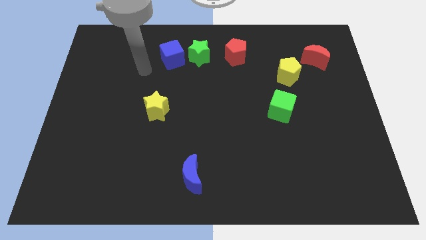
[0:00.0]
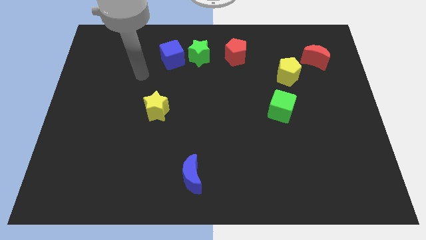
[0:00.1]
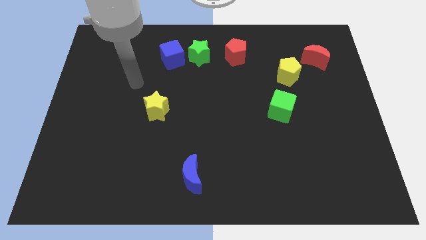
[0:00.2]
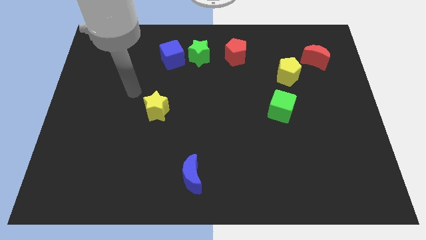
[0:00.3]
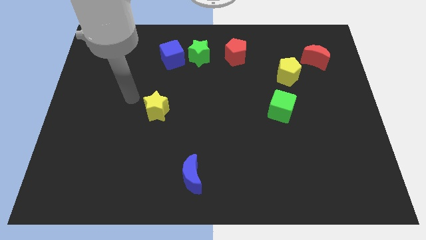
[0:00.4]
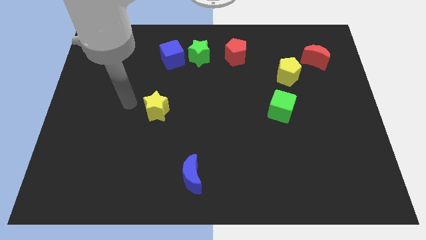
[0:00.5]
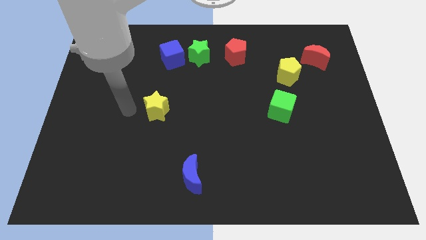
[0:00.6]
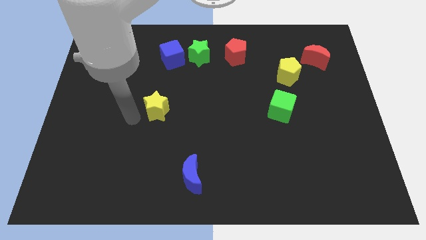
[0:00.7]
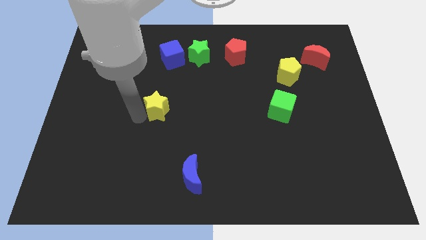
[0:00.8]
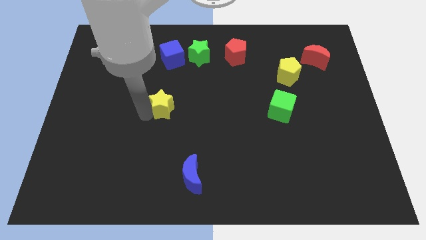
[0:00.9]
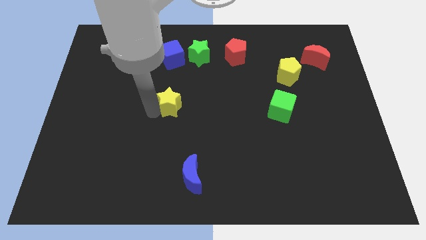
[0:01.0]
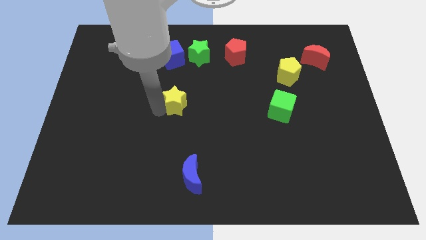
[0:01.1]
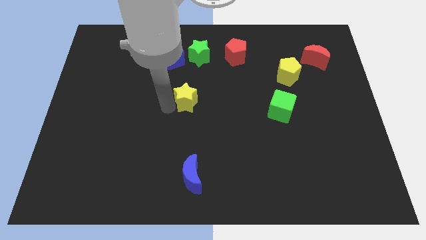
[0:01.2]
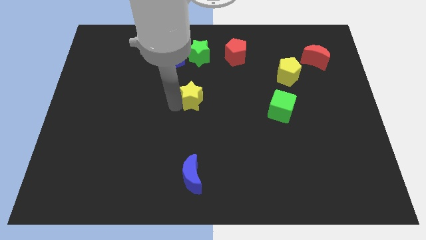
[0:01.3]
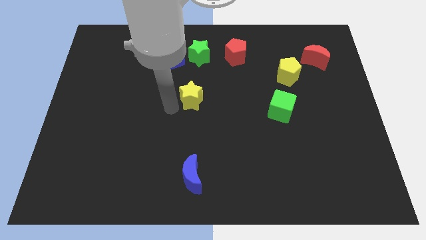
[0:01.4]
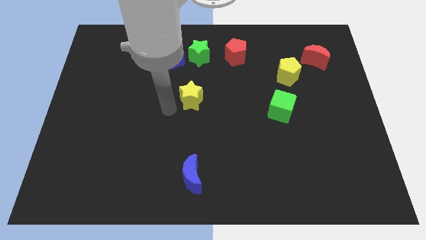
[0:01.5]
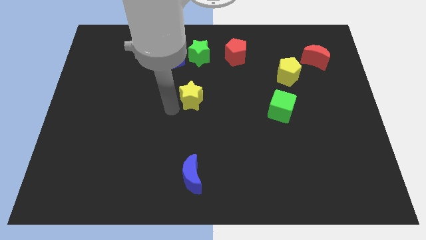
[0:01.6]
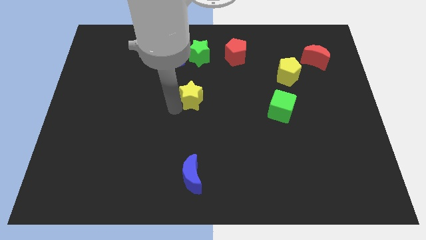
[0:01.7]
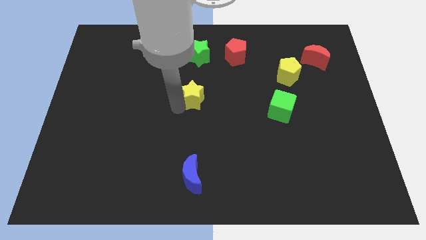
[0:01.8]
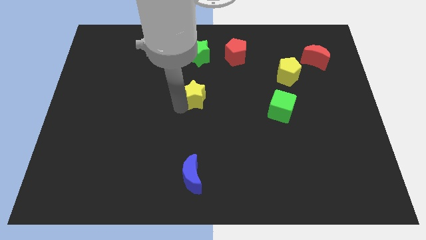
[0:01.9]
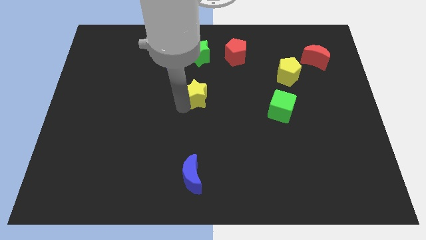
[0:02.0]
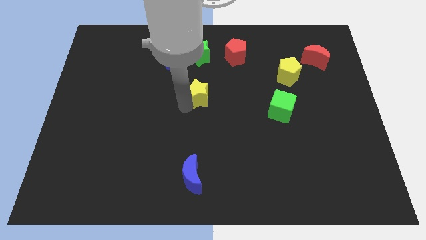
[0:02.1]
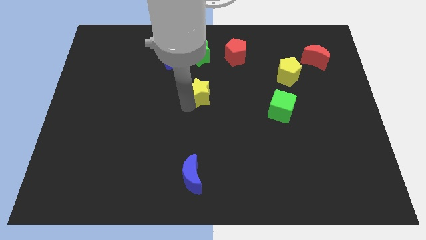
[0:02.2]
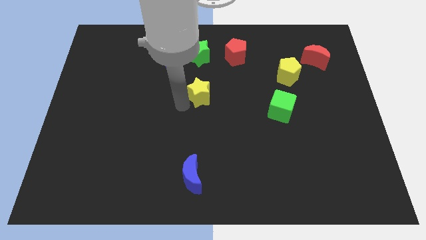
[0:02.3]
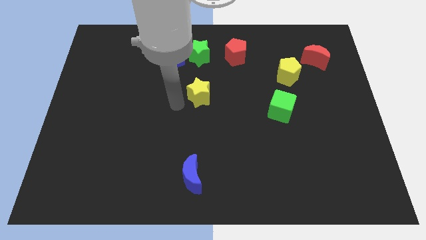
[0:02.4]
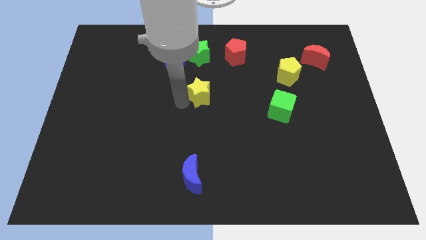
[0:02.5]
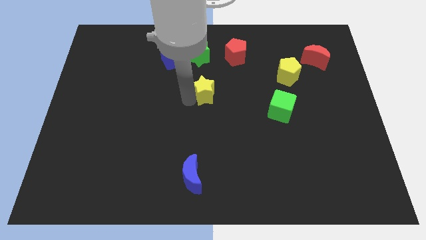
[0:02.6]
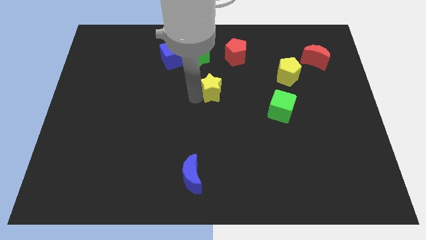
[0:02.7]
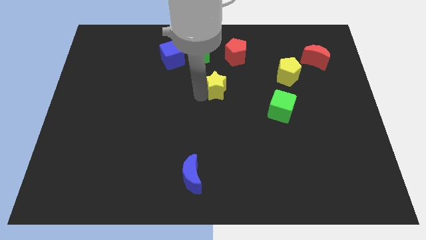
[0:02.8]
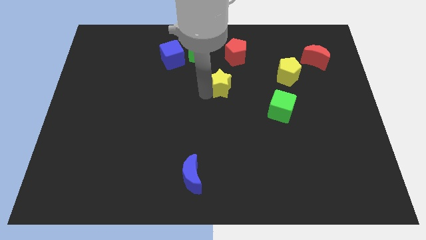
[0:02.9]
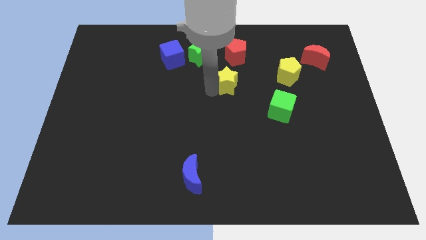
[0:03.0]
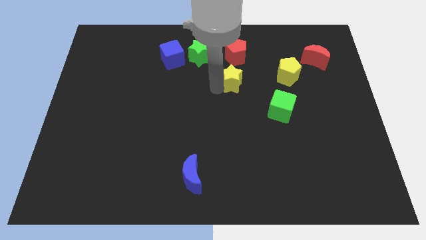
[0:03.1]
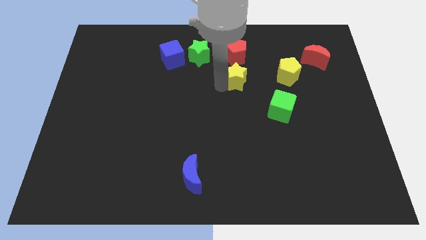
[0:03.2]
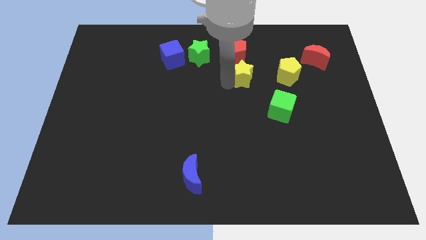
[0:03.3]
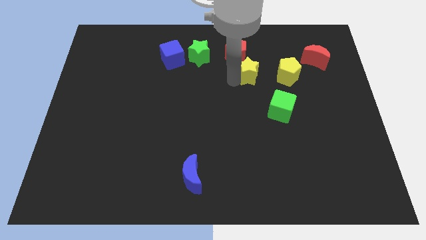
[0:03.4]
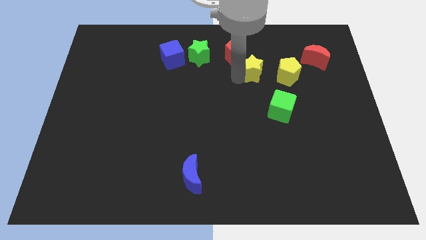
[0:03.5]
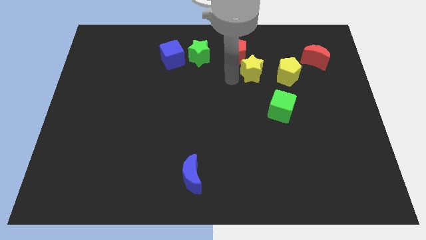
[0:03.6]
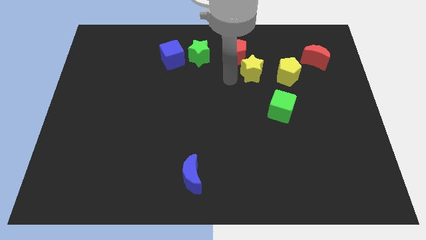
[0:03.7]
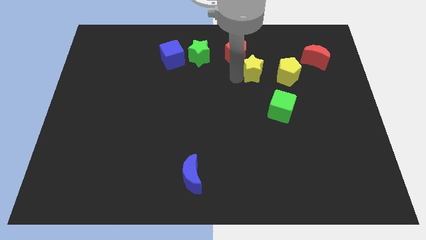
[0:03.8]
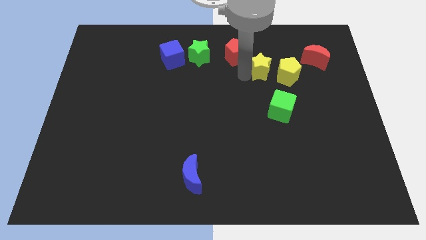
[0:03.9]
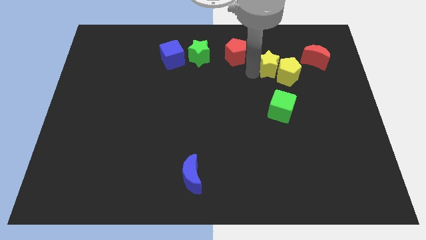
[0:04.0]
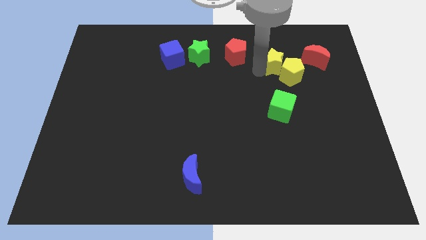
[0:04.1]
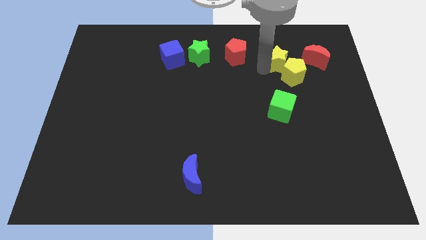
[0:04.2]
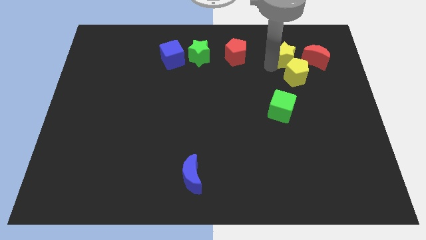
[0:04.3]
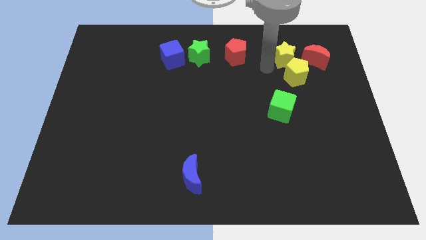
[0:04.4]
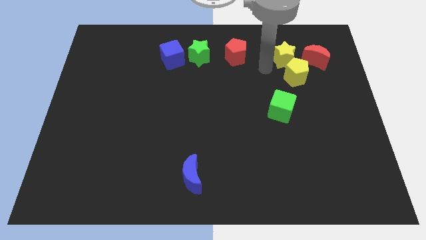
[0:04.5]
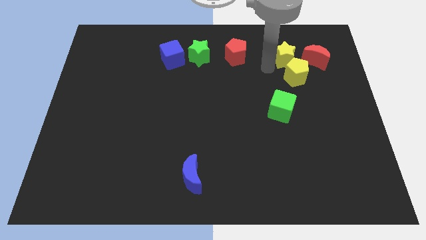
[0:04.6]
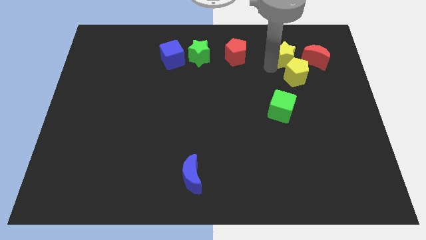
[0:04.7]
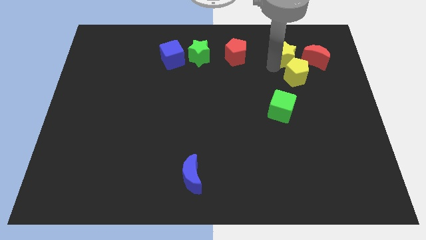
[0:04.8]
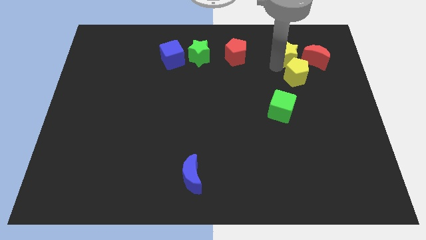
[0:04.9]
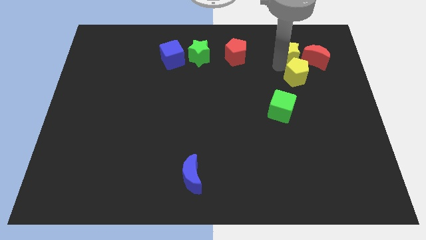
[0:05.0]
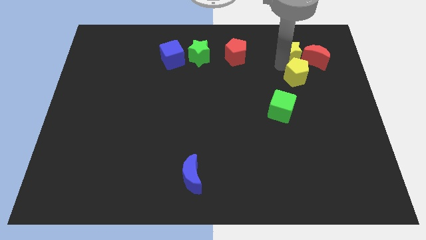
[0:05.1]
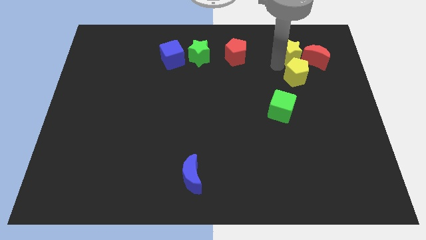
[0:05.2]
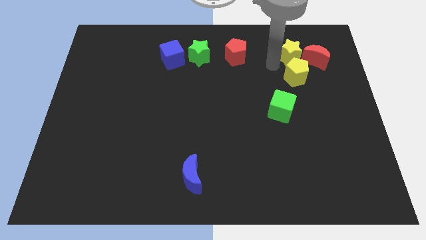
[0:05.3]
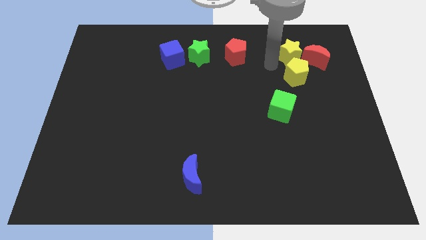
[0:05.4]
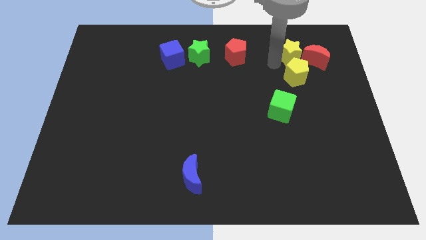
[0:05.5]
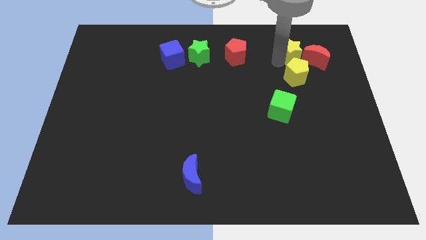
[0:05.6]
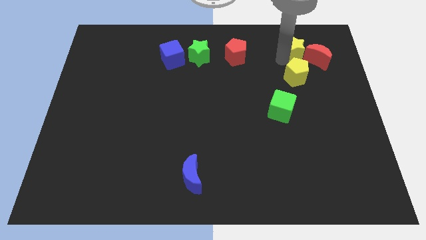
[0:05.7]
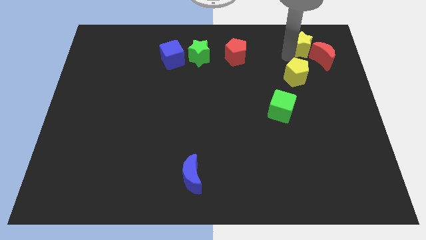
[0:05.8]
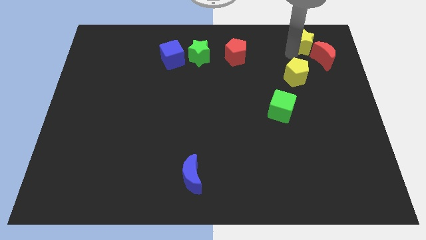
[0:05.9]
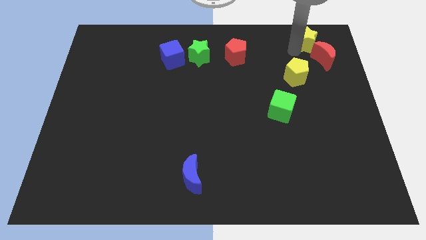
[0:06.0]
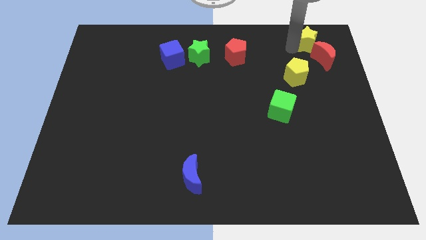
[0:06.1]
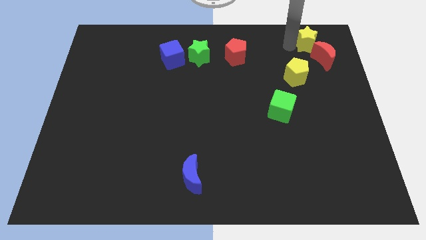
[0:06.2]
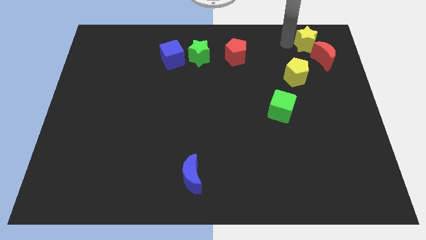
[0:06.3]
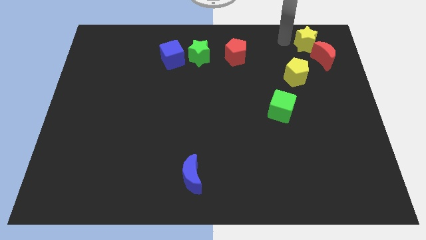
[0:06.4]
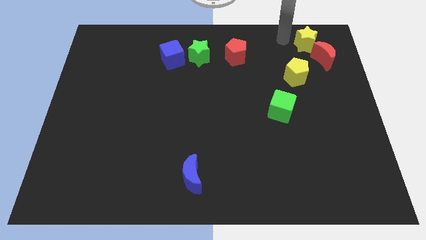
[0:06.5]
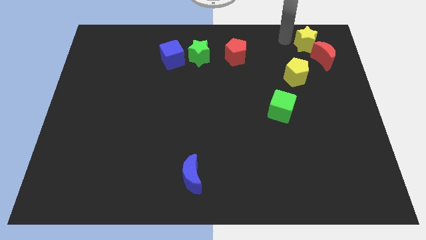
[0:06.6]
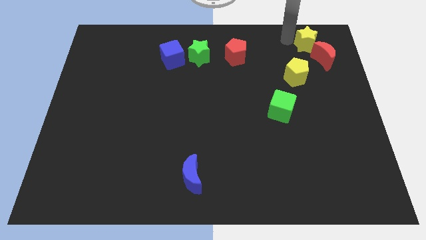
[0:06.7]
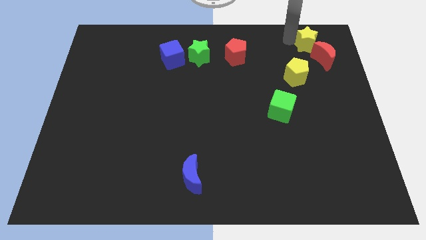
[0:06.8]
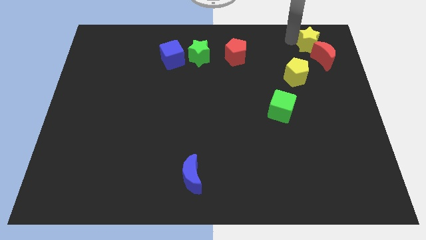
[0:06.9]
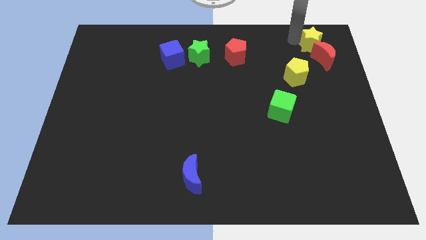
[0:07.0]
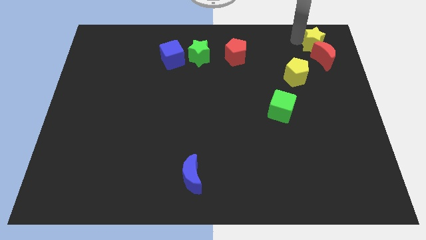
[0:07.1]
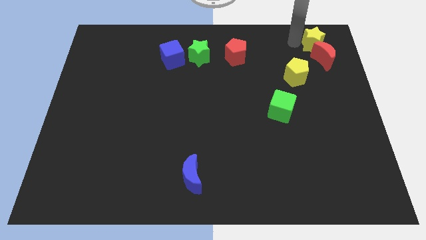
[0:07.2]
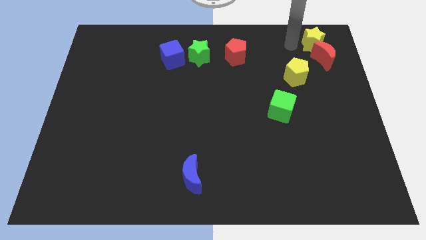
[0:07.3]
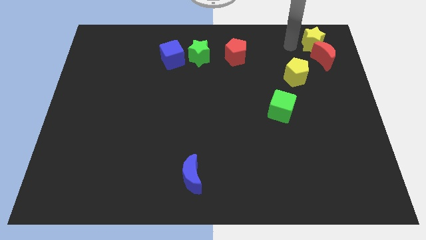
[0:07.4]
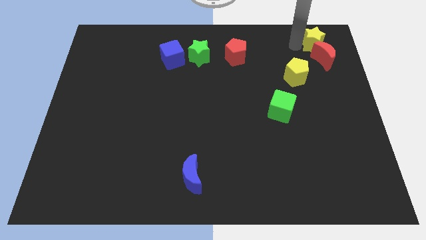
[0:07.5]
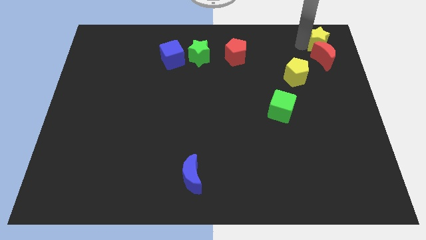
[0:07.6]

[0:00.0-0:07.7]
push the yellow star to the top right of the board

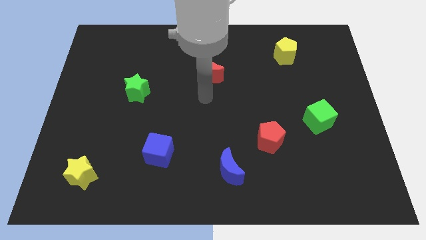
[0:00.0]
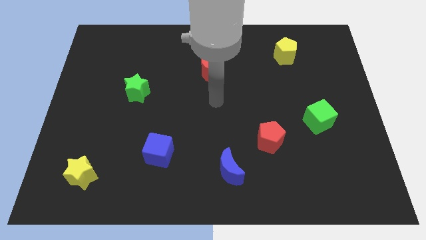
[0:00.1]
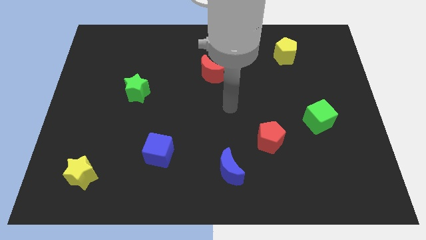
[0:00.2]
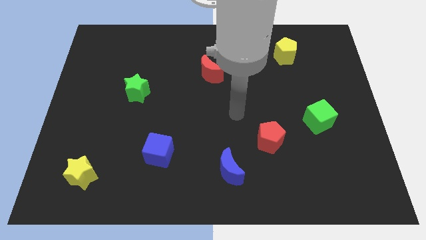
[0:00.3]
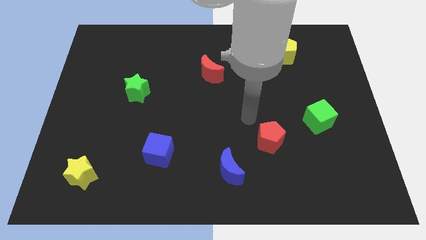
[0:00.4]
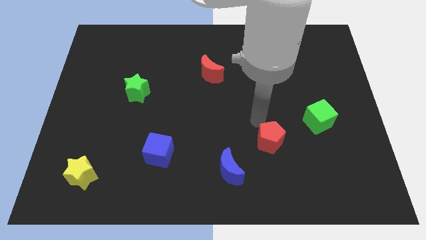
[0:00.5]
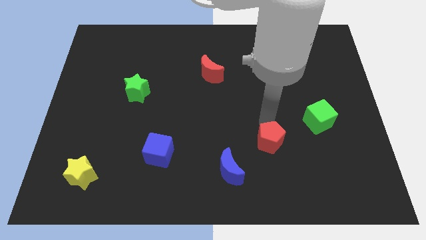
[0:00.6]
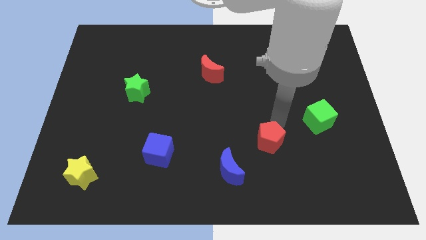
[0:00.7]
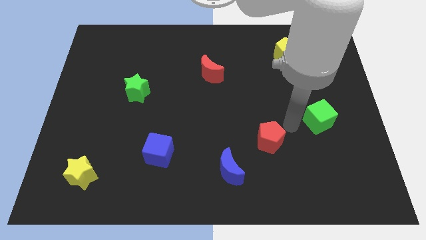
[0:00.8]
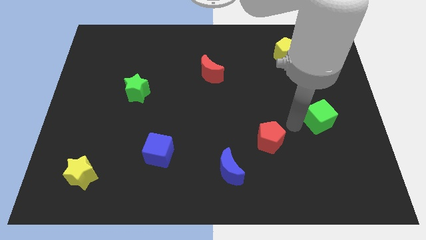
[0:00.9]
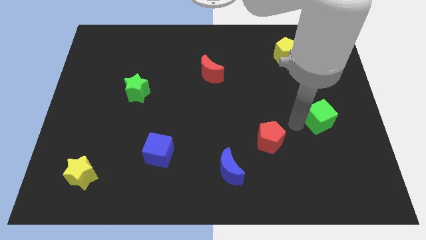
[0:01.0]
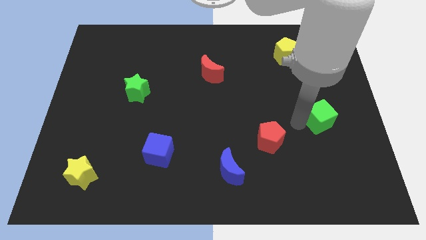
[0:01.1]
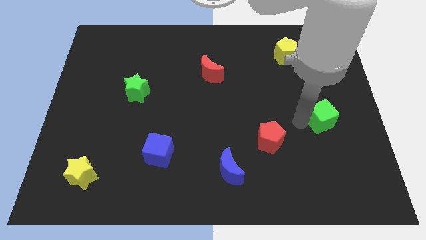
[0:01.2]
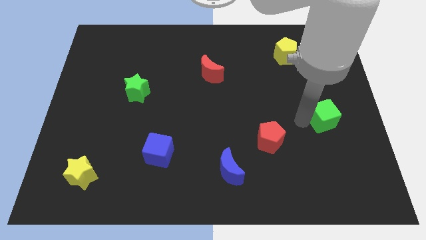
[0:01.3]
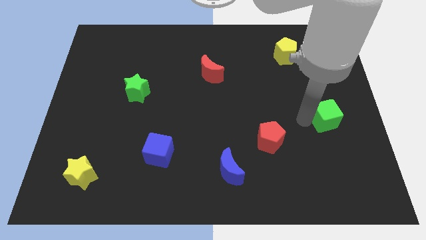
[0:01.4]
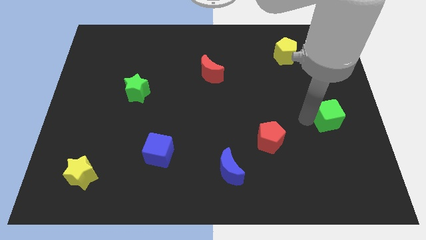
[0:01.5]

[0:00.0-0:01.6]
push the green cube to the right side of the board
